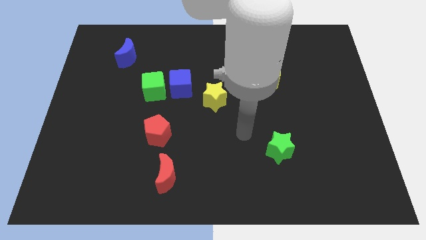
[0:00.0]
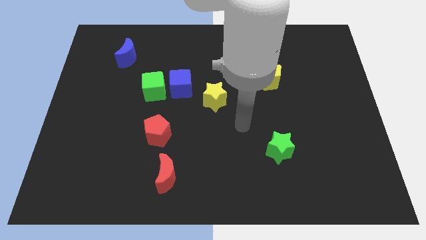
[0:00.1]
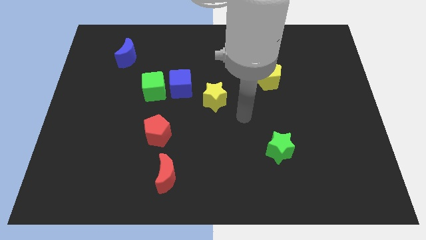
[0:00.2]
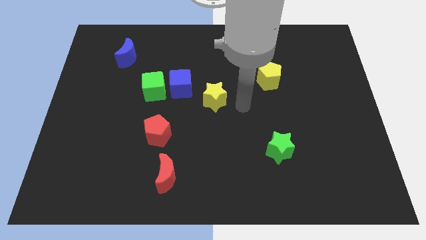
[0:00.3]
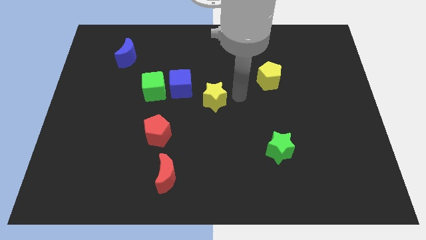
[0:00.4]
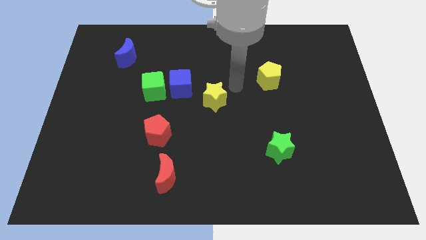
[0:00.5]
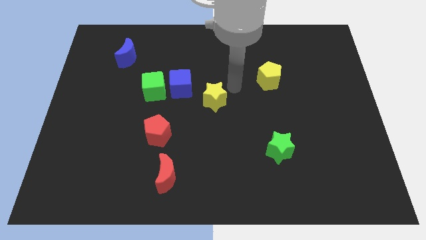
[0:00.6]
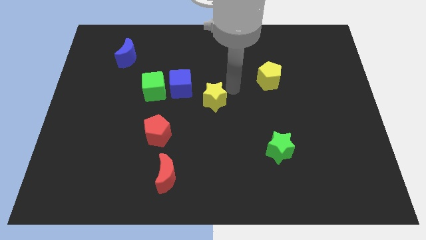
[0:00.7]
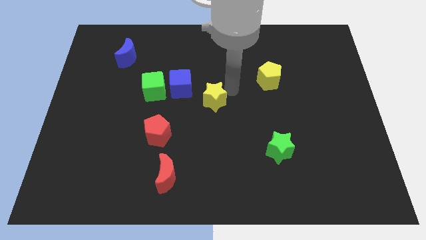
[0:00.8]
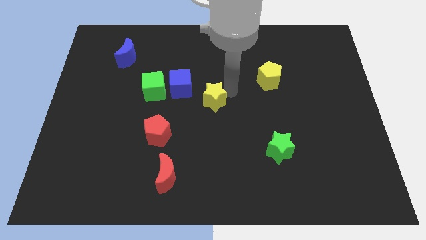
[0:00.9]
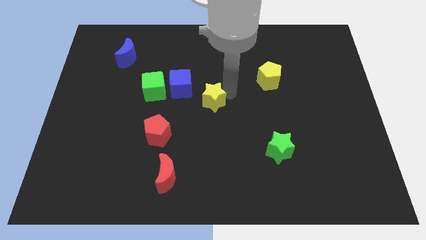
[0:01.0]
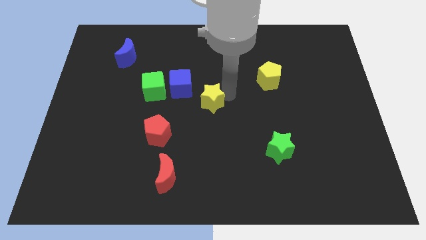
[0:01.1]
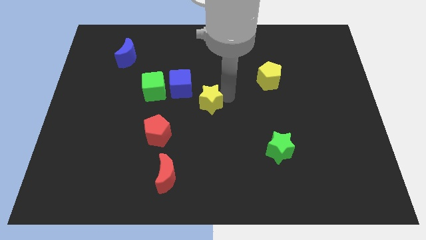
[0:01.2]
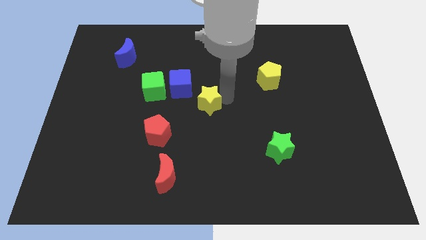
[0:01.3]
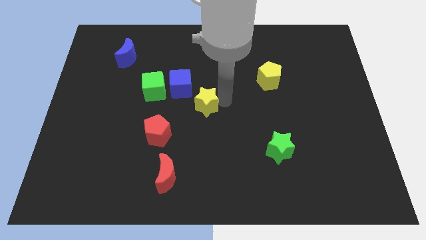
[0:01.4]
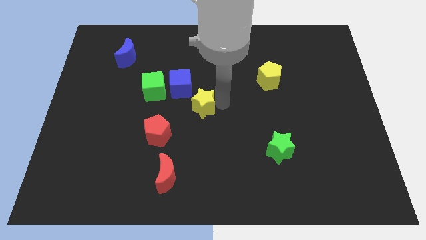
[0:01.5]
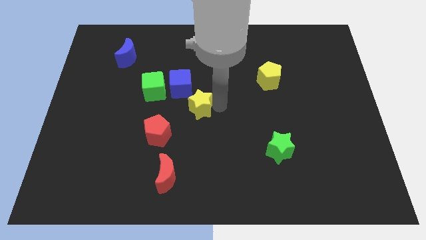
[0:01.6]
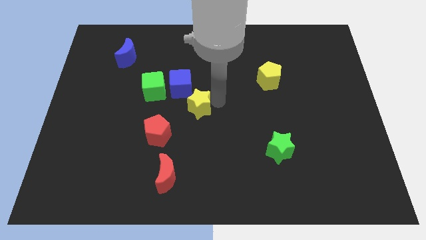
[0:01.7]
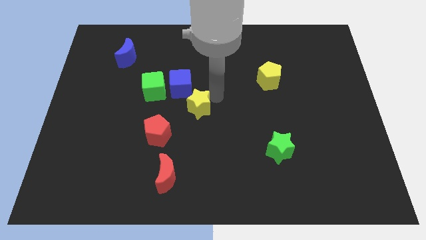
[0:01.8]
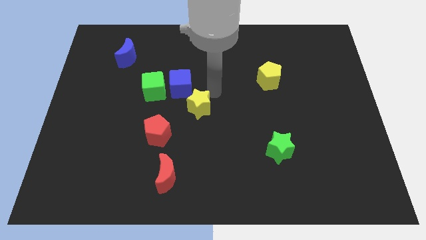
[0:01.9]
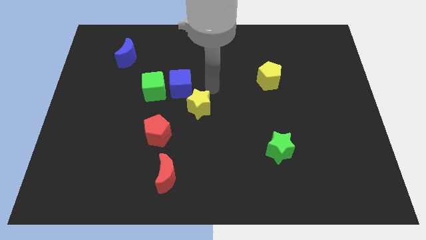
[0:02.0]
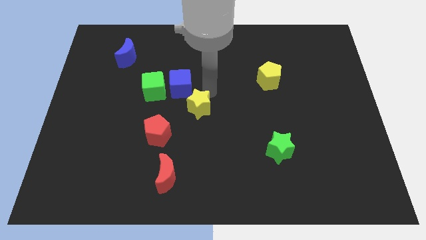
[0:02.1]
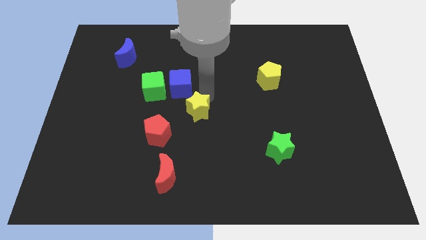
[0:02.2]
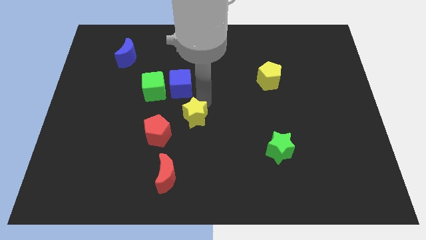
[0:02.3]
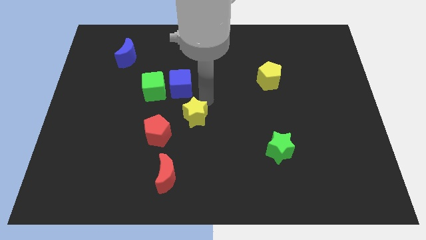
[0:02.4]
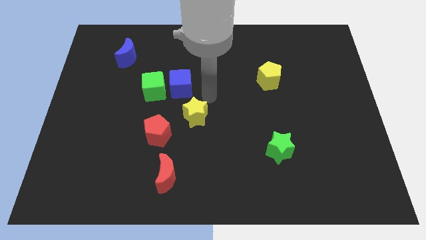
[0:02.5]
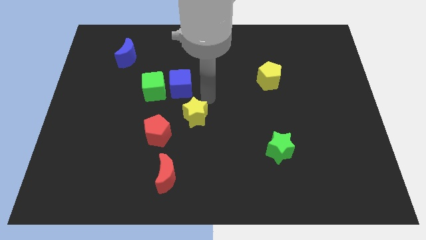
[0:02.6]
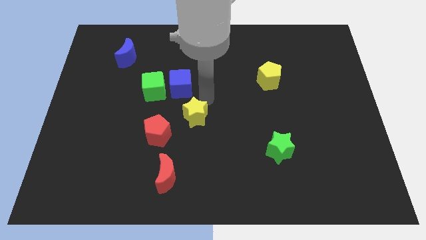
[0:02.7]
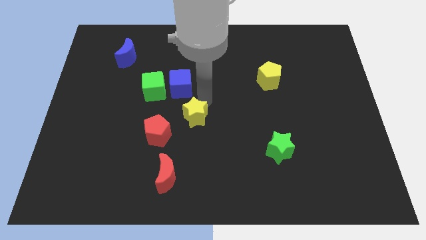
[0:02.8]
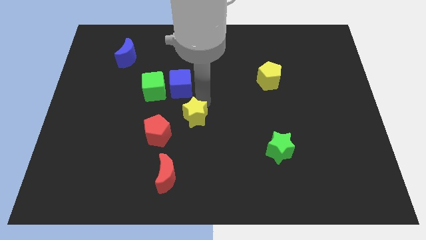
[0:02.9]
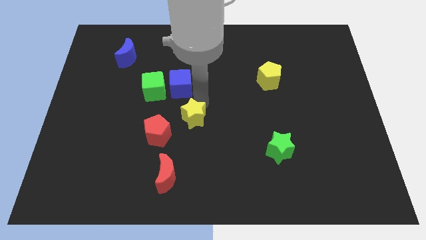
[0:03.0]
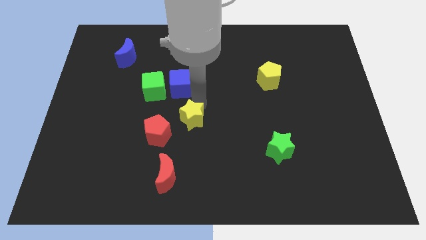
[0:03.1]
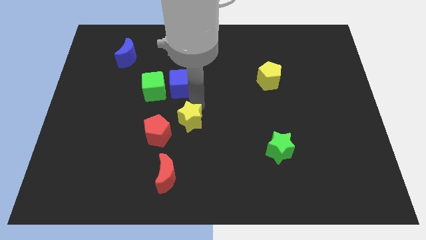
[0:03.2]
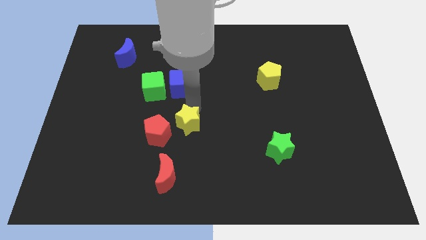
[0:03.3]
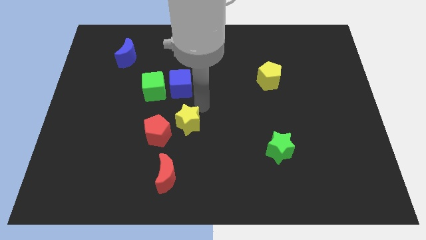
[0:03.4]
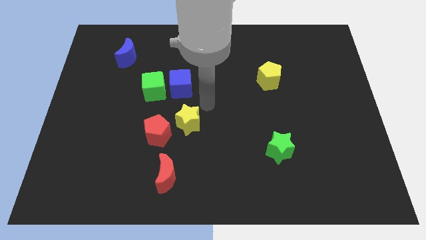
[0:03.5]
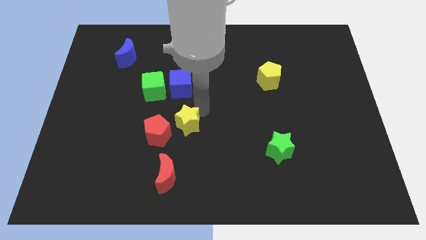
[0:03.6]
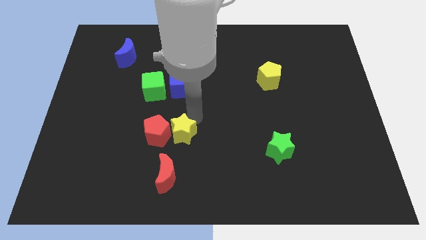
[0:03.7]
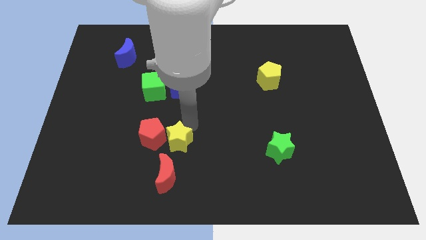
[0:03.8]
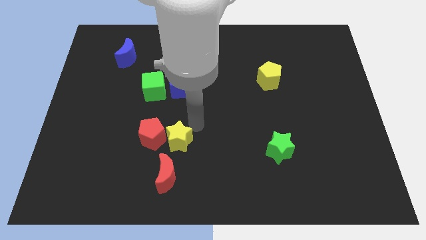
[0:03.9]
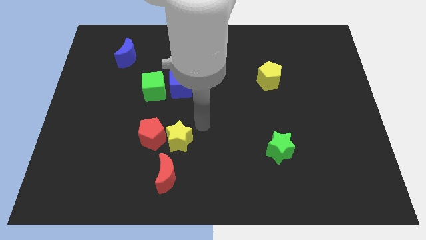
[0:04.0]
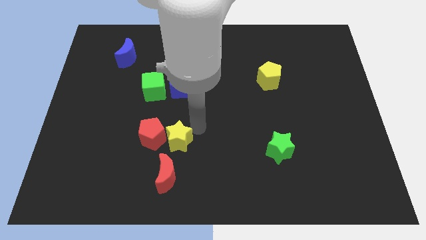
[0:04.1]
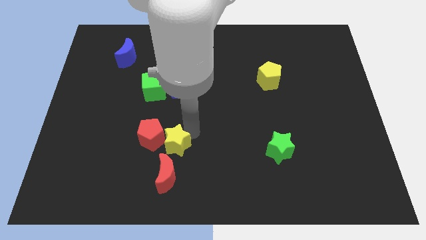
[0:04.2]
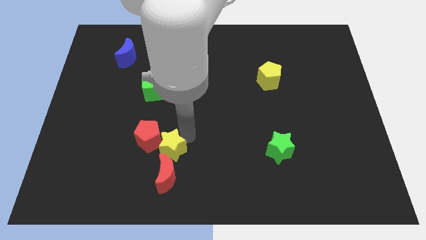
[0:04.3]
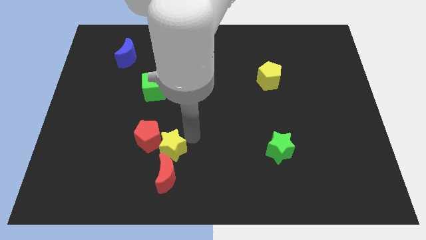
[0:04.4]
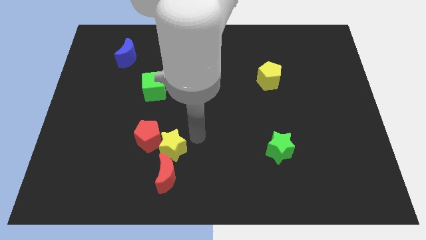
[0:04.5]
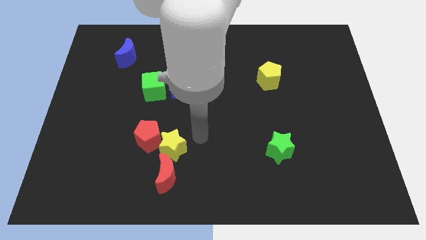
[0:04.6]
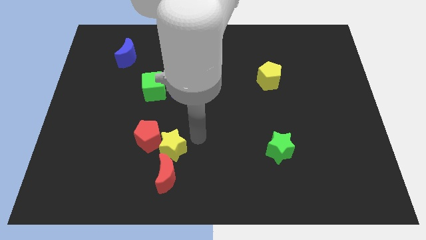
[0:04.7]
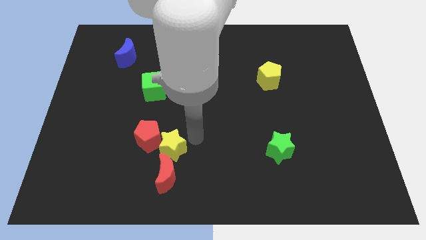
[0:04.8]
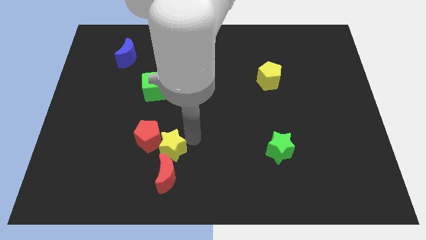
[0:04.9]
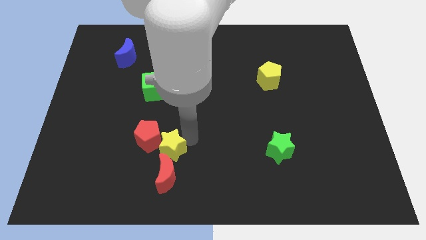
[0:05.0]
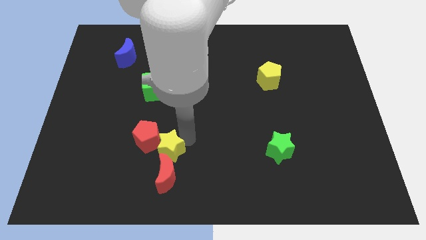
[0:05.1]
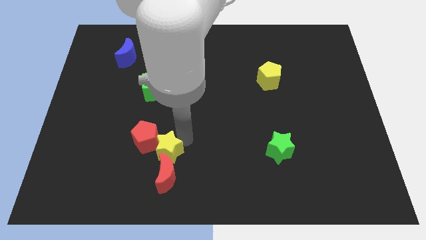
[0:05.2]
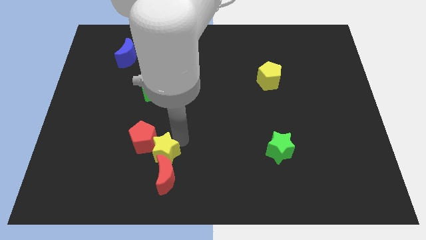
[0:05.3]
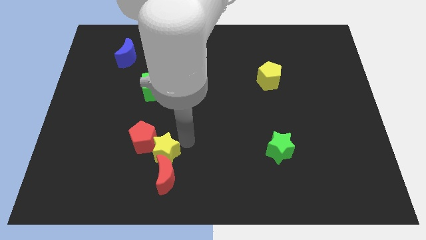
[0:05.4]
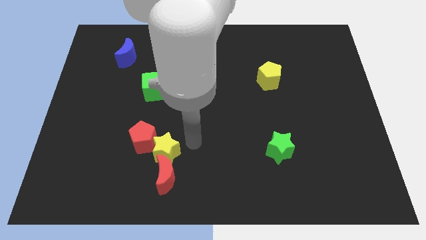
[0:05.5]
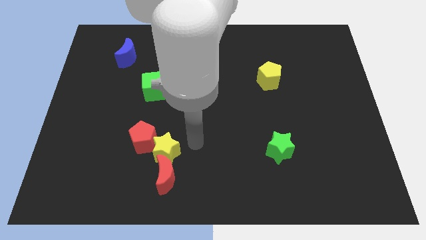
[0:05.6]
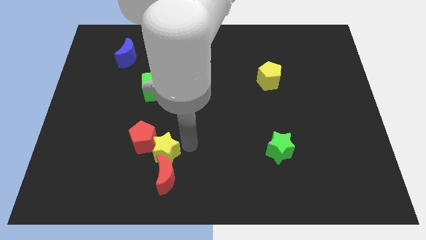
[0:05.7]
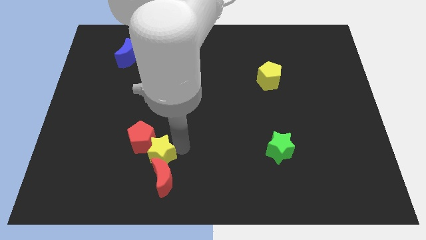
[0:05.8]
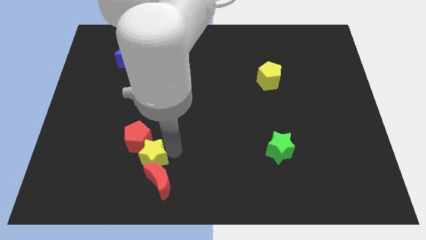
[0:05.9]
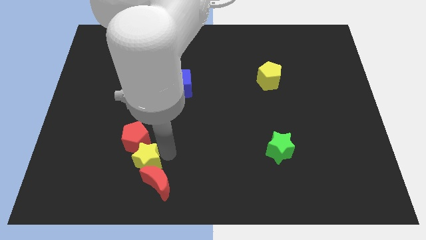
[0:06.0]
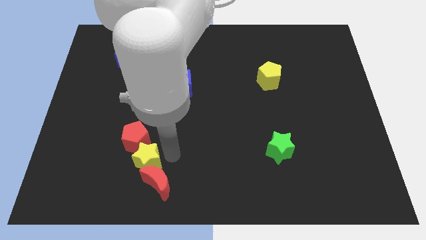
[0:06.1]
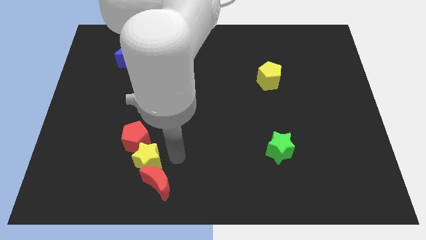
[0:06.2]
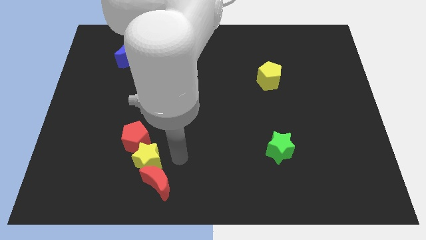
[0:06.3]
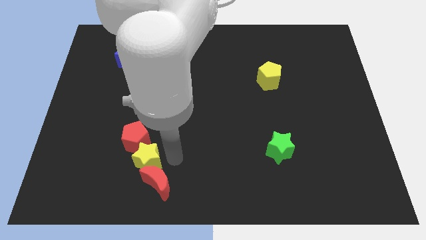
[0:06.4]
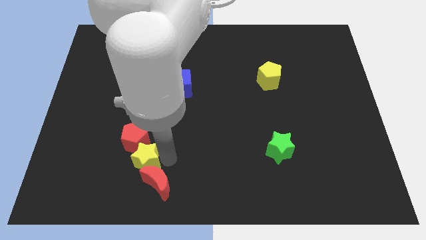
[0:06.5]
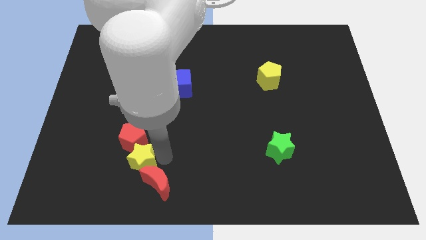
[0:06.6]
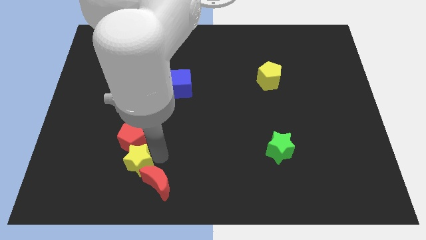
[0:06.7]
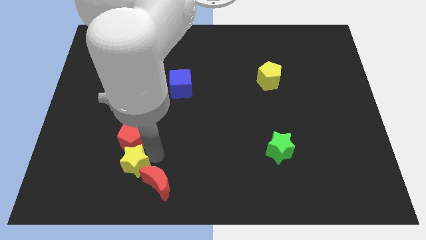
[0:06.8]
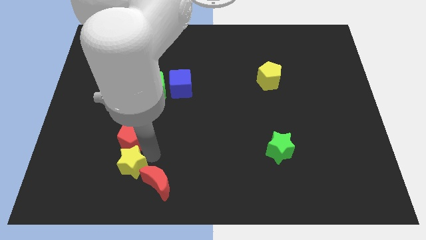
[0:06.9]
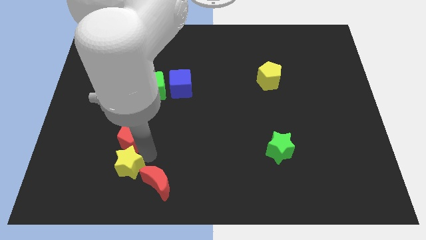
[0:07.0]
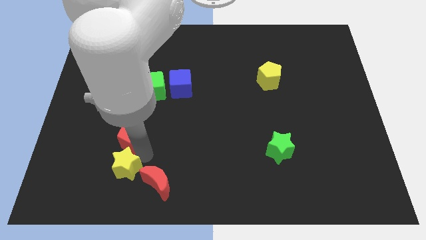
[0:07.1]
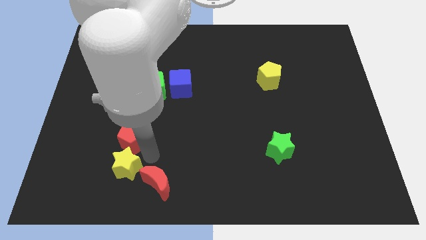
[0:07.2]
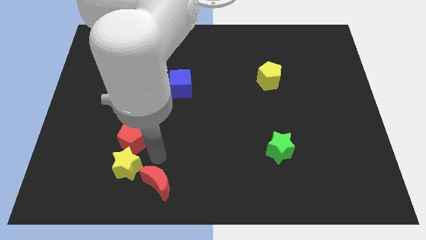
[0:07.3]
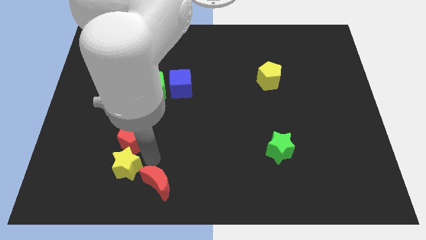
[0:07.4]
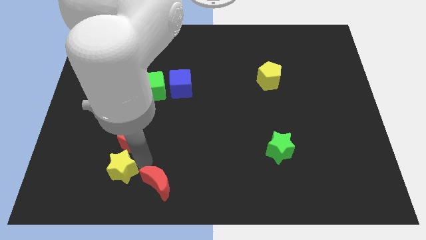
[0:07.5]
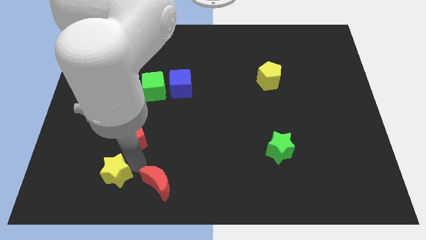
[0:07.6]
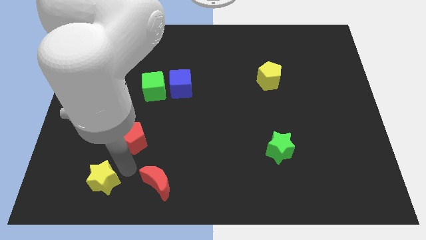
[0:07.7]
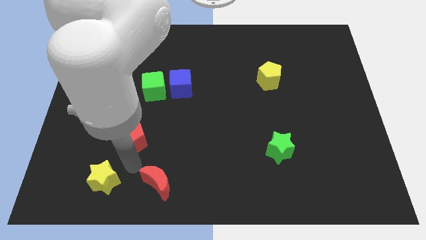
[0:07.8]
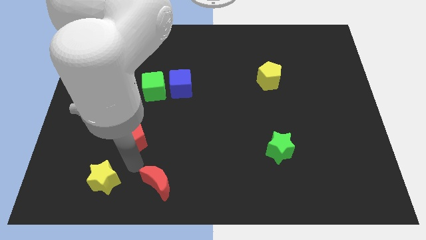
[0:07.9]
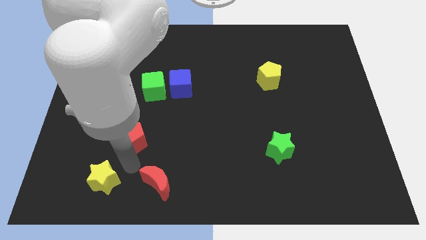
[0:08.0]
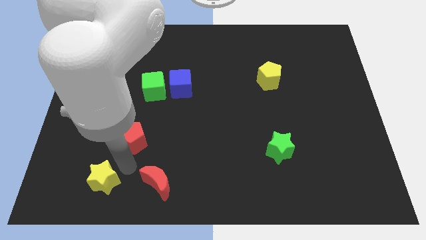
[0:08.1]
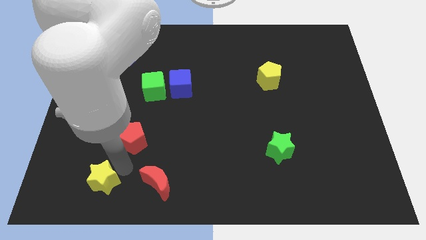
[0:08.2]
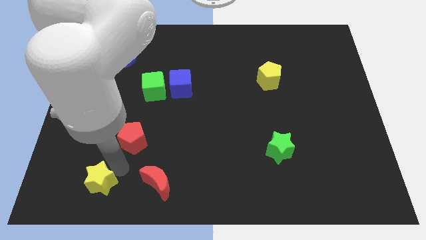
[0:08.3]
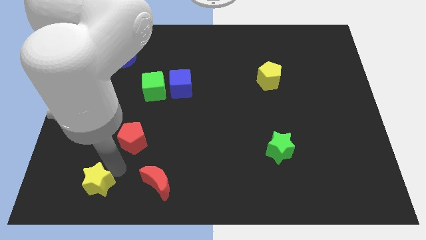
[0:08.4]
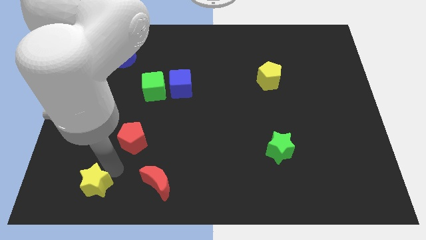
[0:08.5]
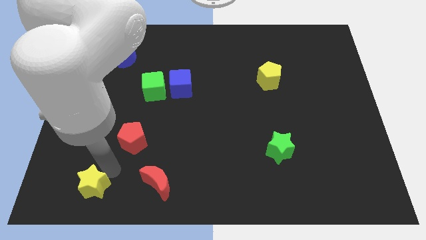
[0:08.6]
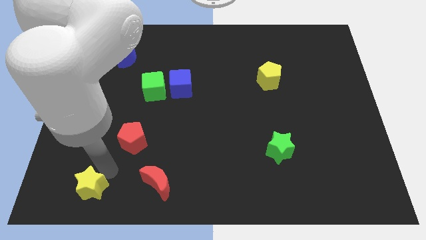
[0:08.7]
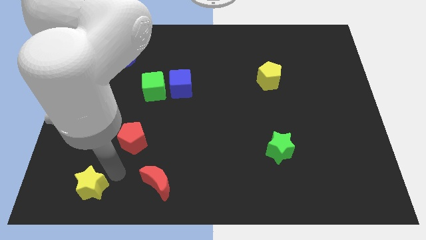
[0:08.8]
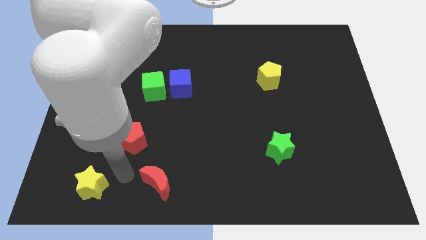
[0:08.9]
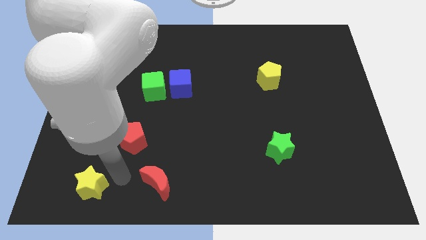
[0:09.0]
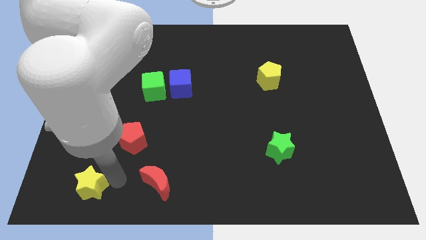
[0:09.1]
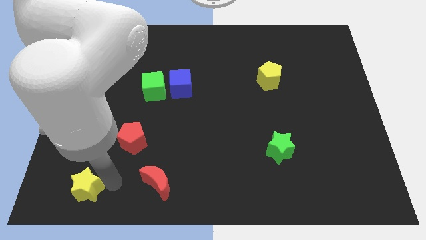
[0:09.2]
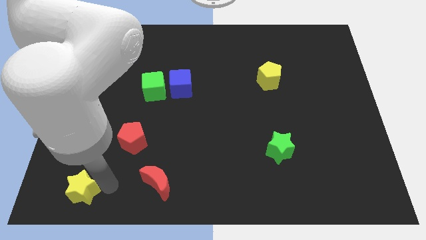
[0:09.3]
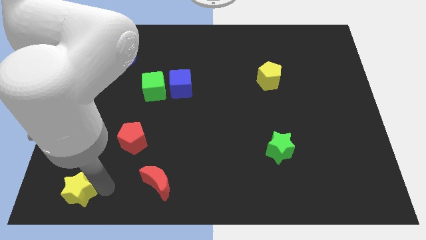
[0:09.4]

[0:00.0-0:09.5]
slide the yellow star to the bottom left corner
